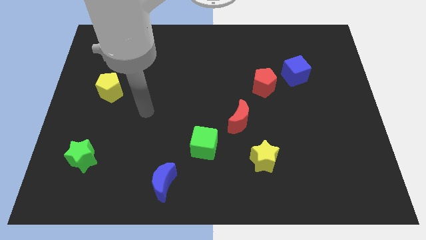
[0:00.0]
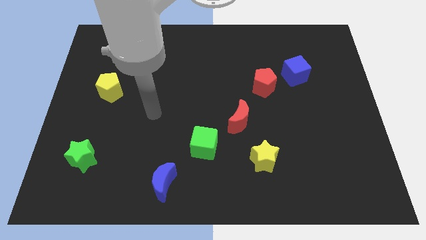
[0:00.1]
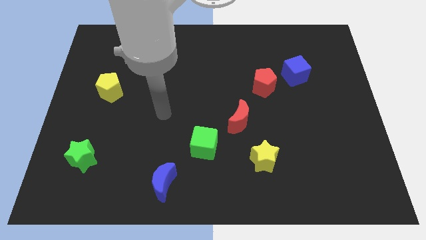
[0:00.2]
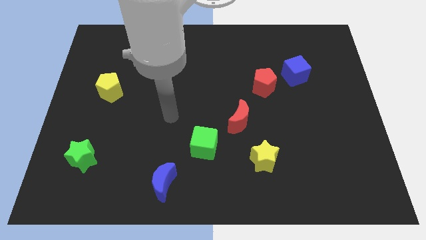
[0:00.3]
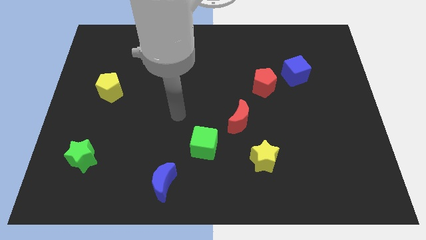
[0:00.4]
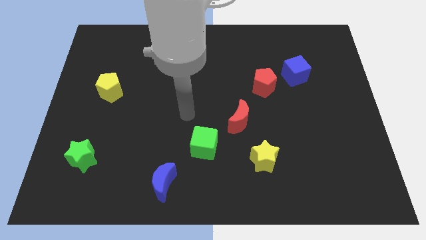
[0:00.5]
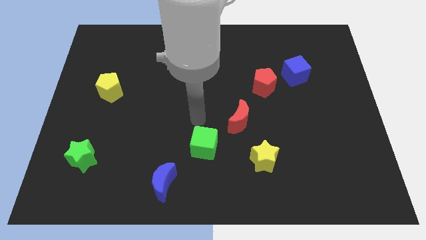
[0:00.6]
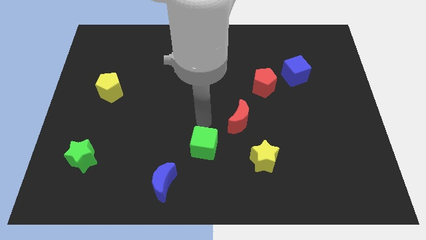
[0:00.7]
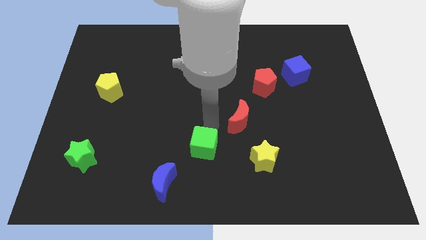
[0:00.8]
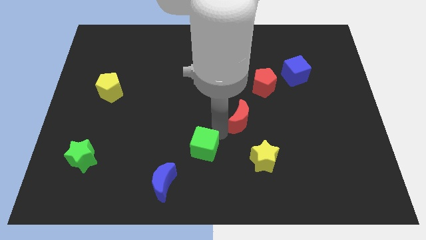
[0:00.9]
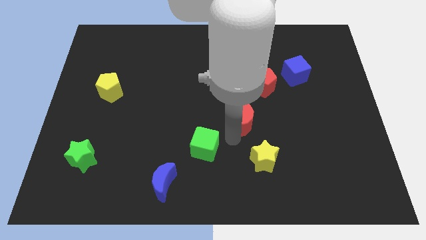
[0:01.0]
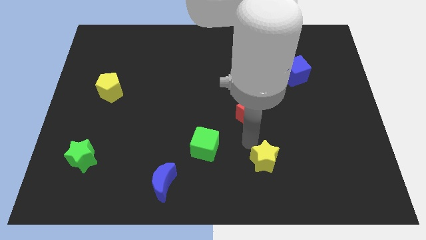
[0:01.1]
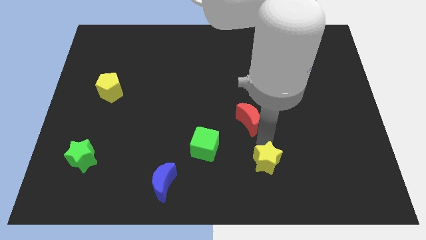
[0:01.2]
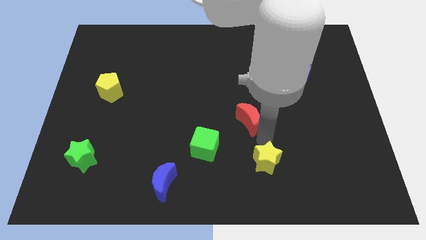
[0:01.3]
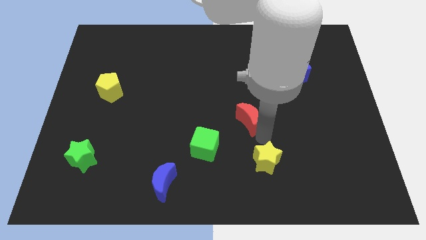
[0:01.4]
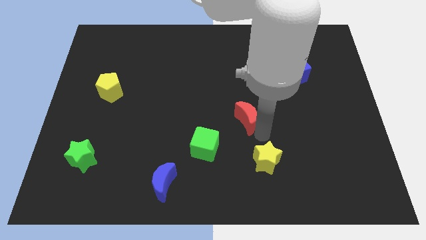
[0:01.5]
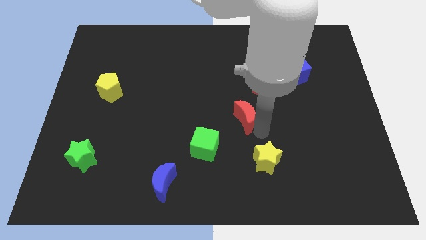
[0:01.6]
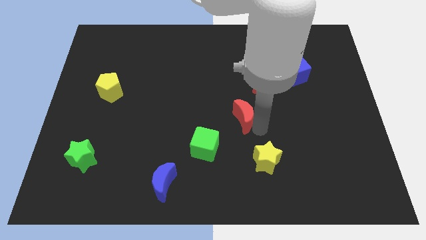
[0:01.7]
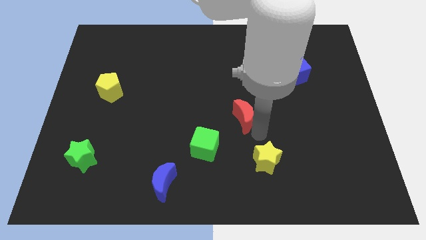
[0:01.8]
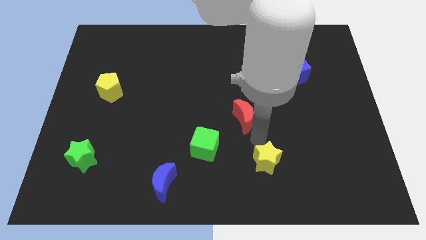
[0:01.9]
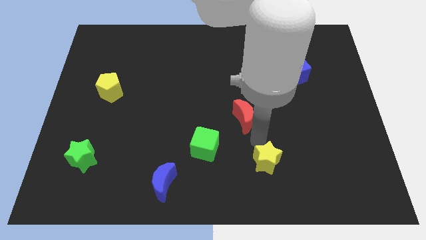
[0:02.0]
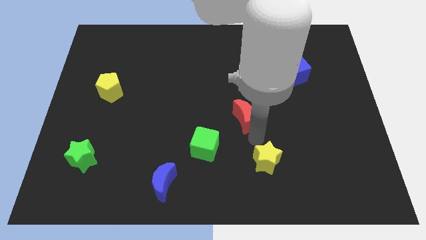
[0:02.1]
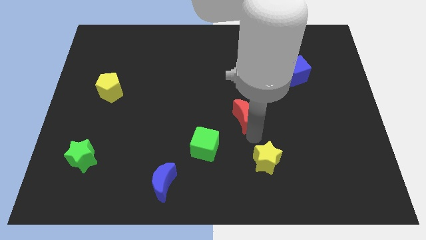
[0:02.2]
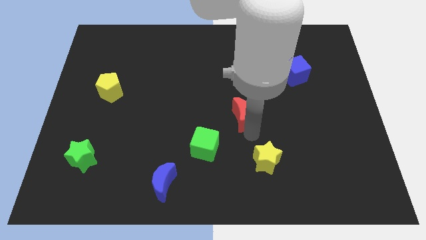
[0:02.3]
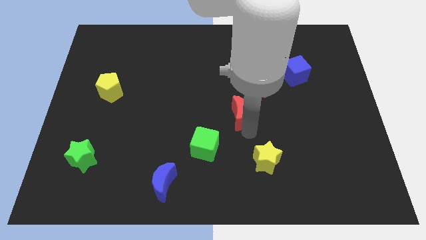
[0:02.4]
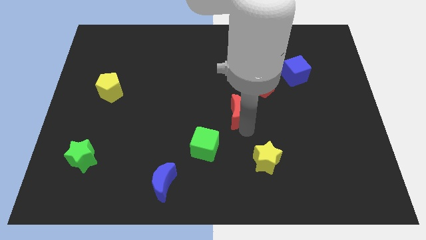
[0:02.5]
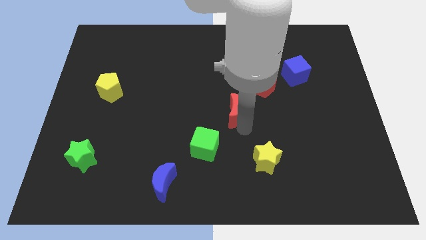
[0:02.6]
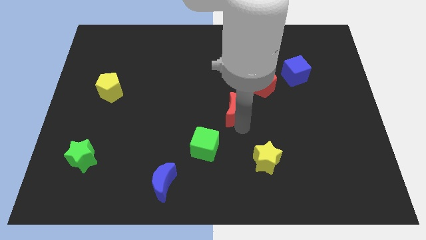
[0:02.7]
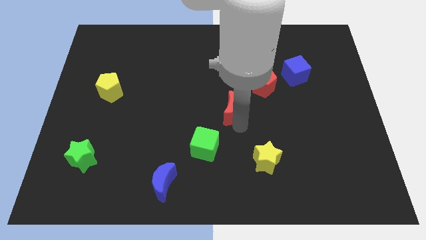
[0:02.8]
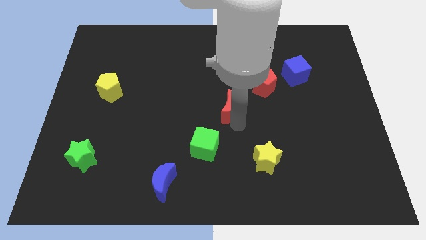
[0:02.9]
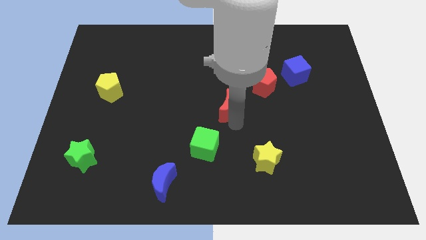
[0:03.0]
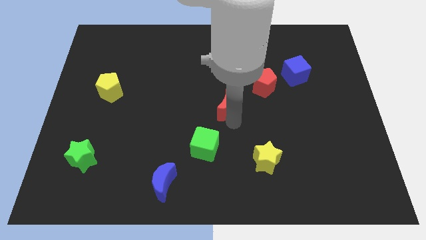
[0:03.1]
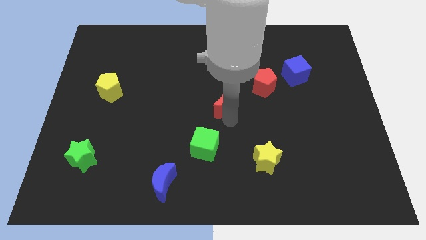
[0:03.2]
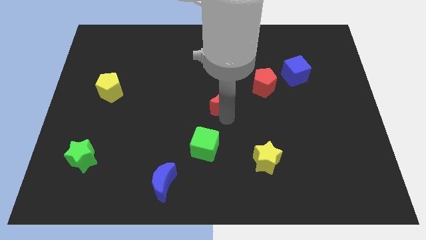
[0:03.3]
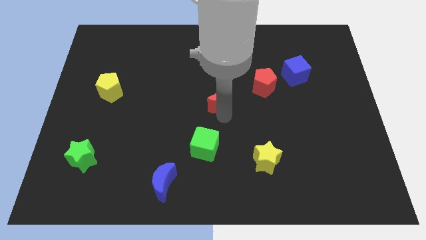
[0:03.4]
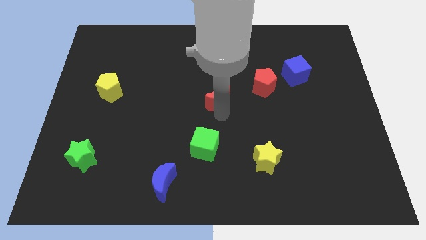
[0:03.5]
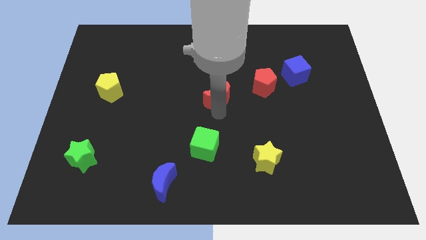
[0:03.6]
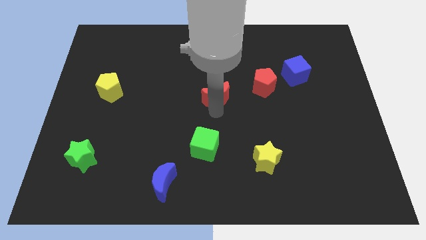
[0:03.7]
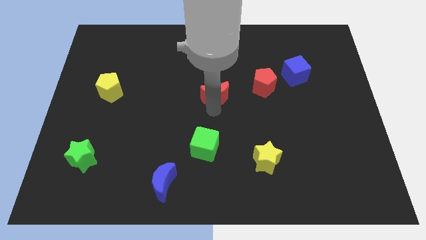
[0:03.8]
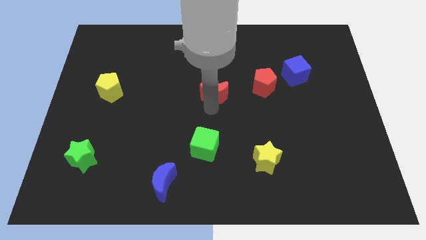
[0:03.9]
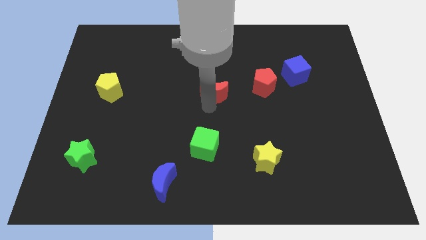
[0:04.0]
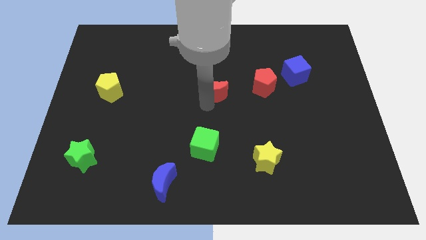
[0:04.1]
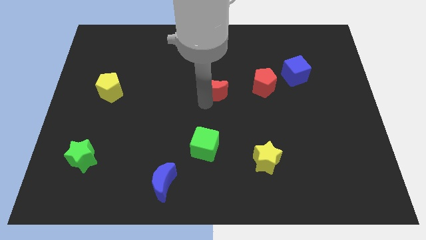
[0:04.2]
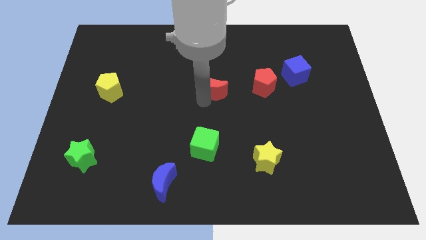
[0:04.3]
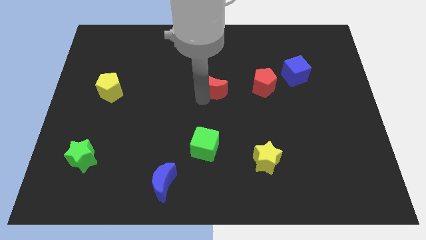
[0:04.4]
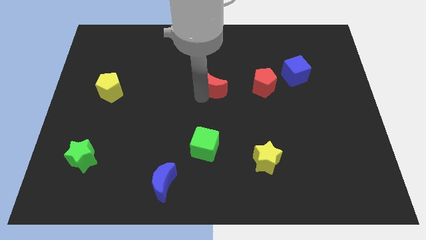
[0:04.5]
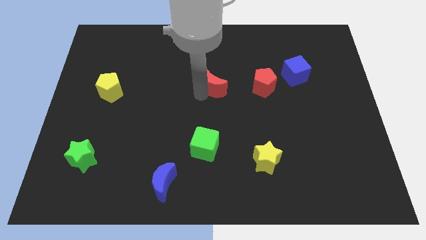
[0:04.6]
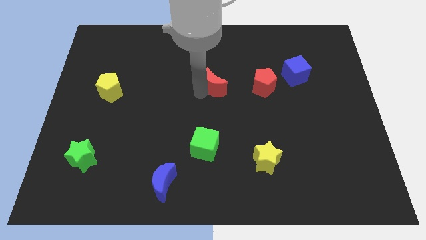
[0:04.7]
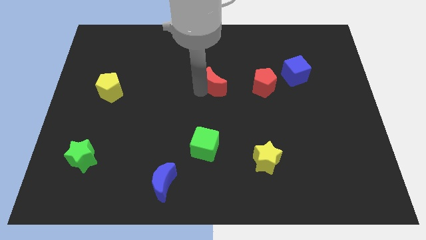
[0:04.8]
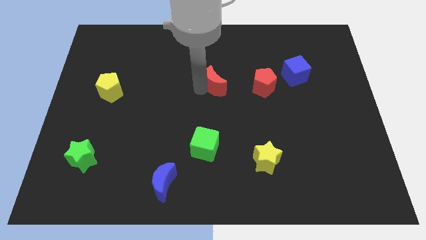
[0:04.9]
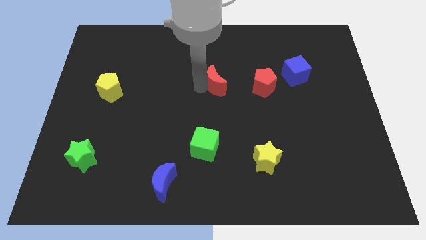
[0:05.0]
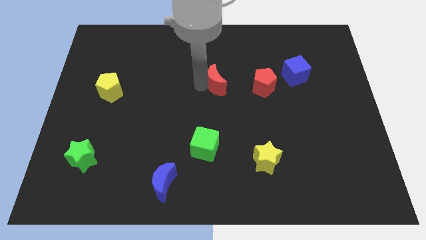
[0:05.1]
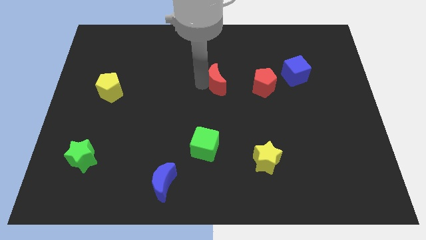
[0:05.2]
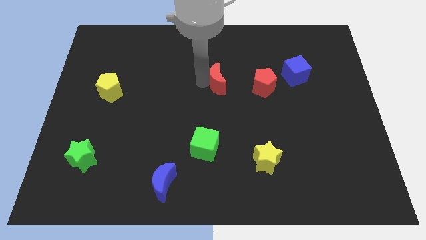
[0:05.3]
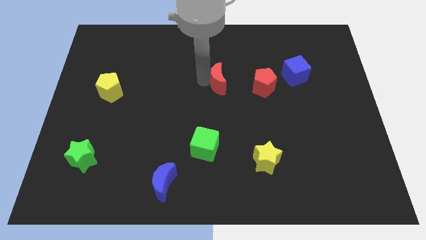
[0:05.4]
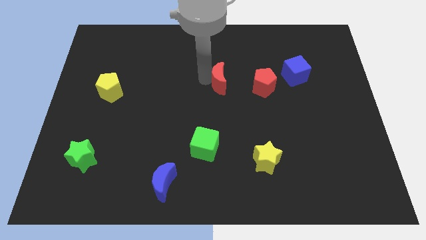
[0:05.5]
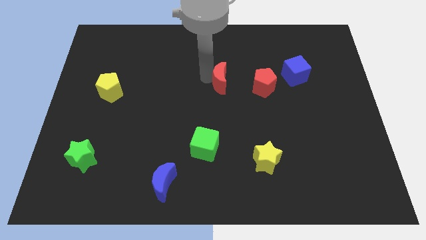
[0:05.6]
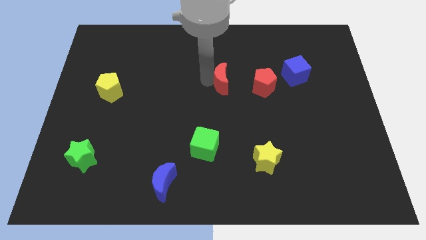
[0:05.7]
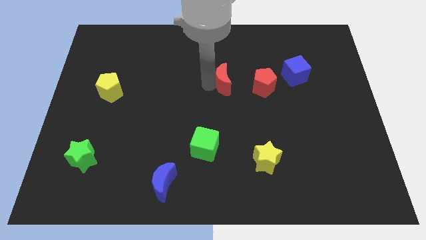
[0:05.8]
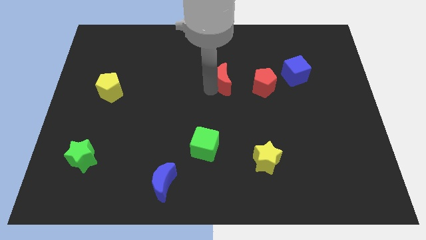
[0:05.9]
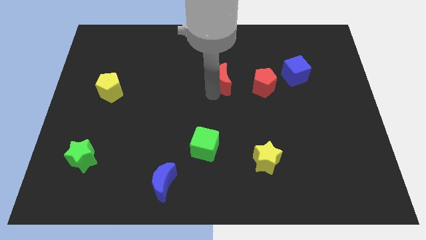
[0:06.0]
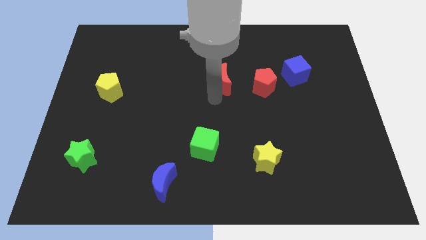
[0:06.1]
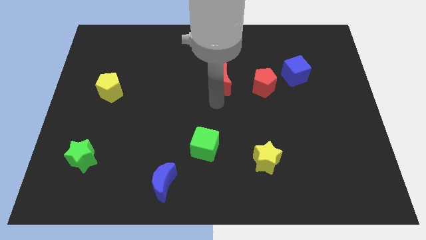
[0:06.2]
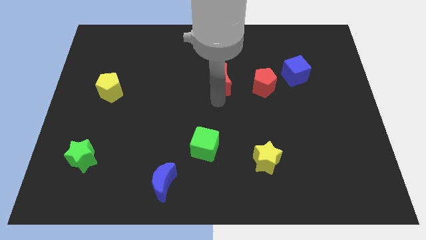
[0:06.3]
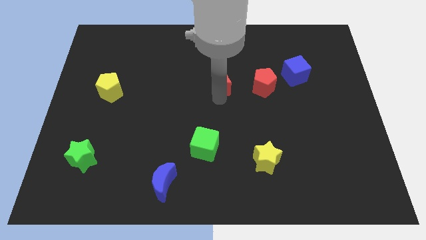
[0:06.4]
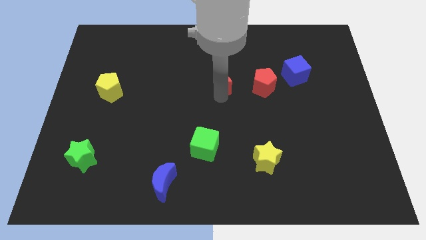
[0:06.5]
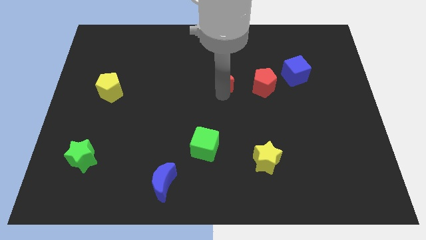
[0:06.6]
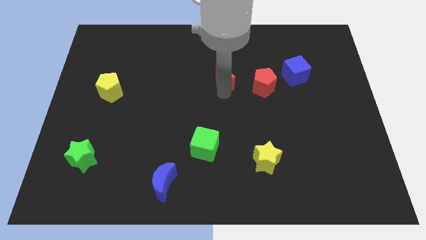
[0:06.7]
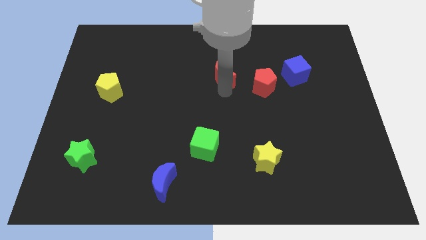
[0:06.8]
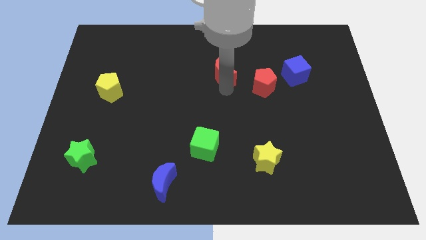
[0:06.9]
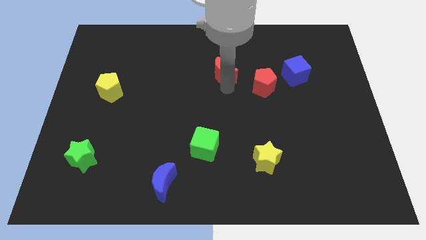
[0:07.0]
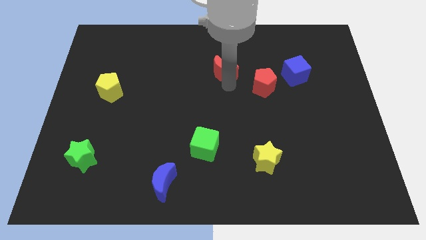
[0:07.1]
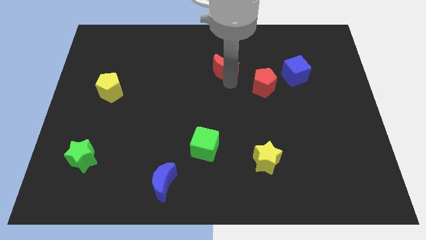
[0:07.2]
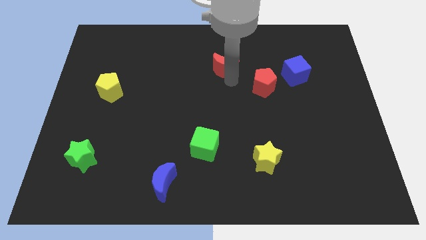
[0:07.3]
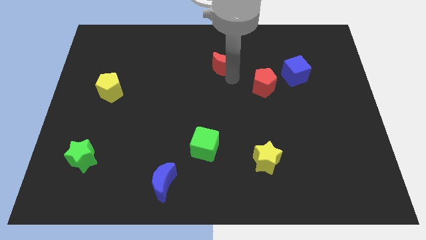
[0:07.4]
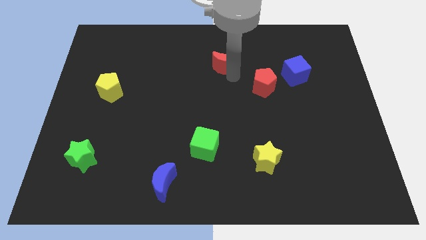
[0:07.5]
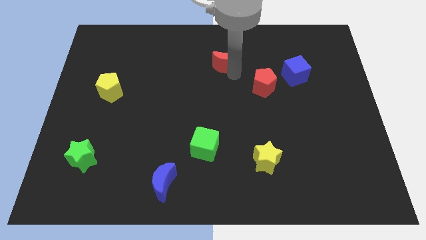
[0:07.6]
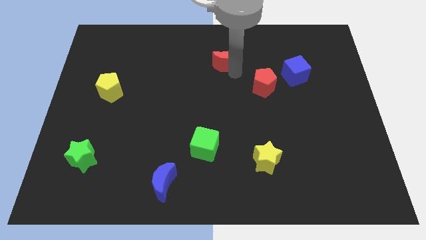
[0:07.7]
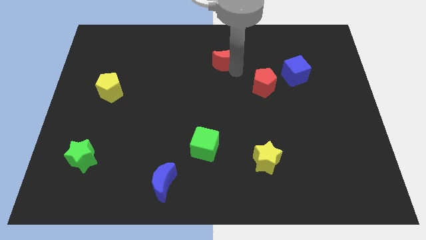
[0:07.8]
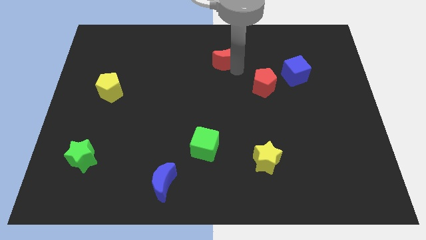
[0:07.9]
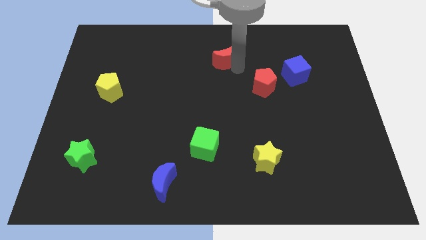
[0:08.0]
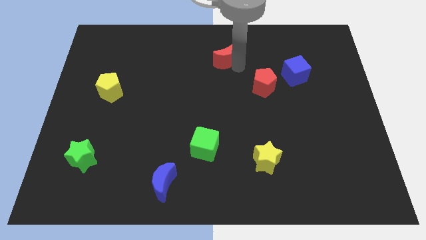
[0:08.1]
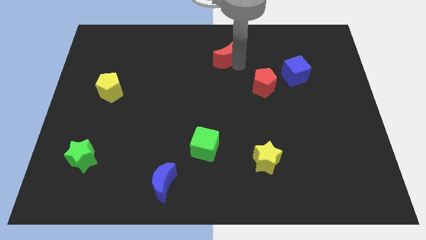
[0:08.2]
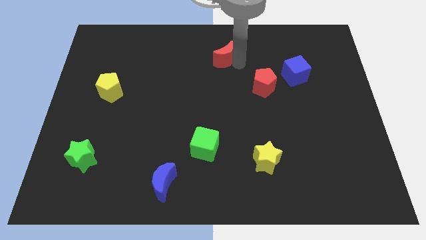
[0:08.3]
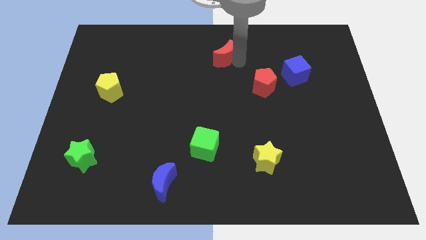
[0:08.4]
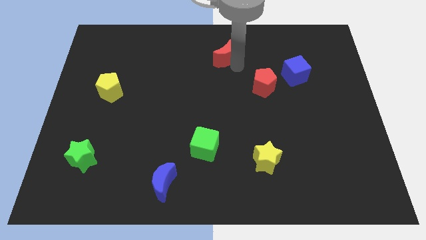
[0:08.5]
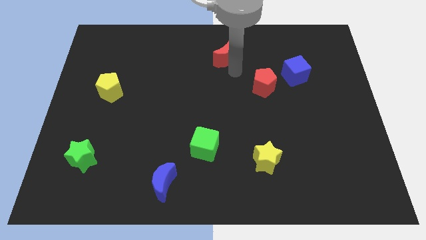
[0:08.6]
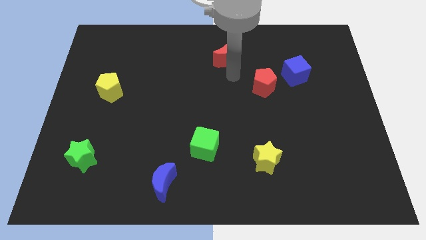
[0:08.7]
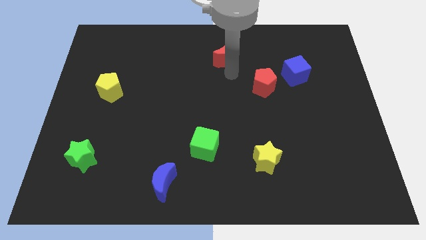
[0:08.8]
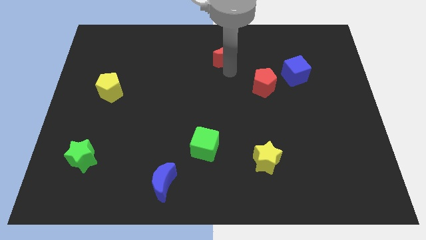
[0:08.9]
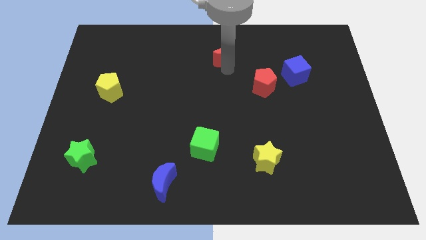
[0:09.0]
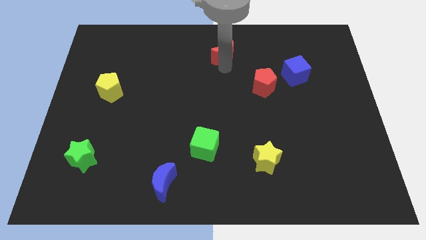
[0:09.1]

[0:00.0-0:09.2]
slide the red moon to the towards your base
